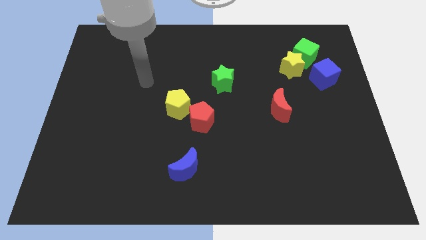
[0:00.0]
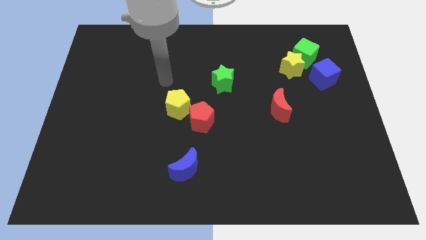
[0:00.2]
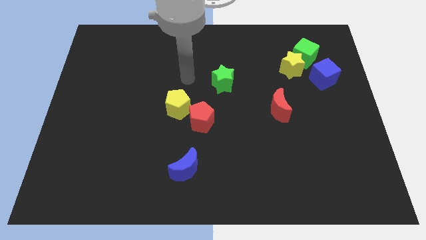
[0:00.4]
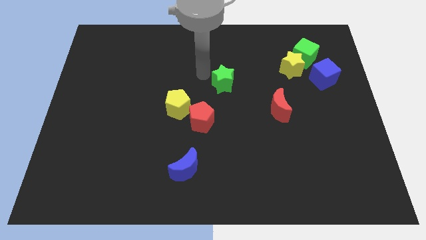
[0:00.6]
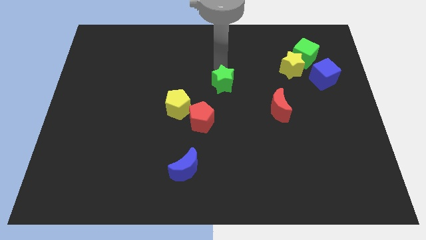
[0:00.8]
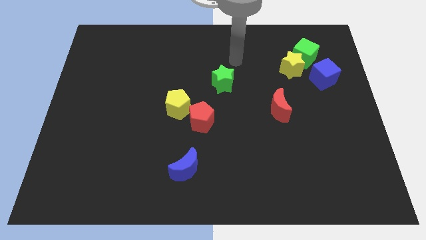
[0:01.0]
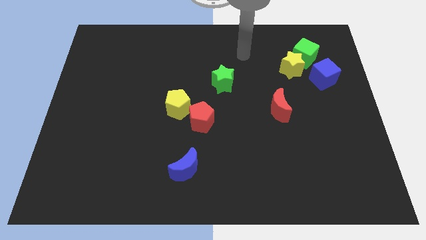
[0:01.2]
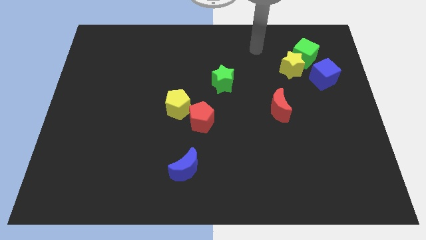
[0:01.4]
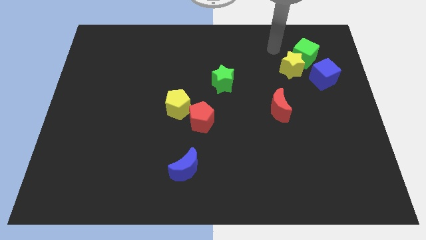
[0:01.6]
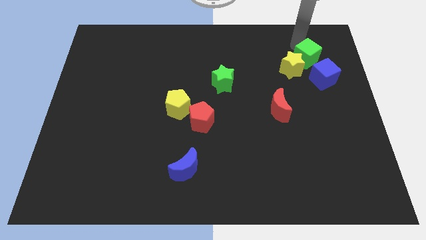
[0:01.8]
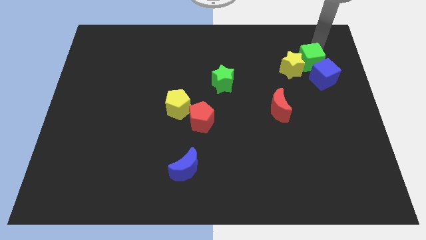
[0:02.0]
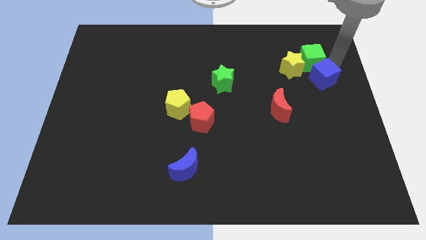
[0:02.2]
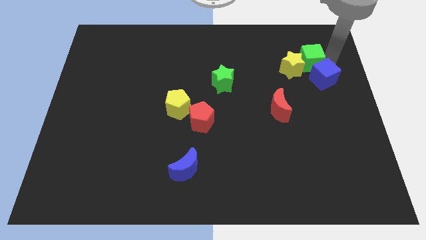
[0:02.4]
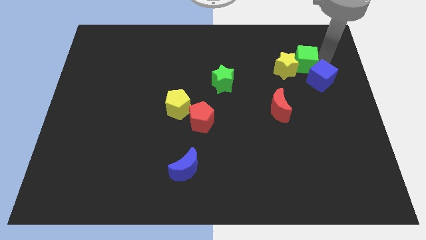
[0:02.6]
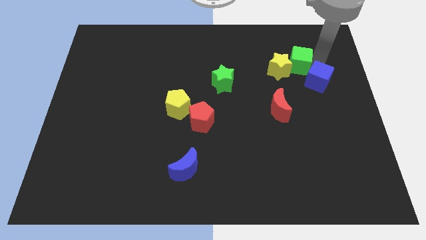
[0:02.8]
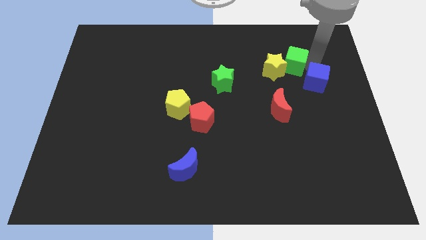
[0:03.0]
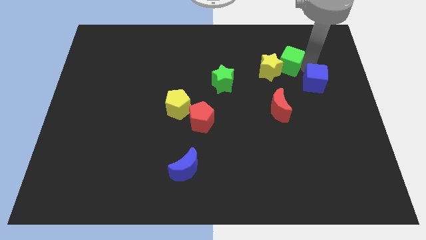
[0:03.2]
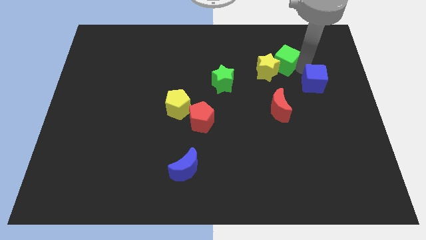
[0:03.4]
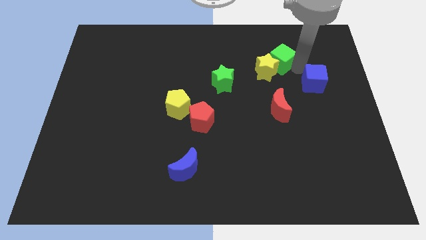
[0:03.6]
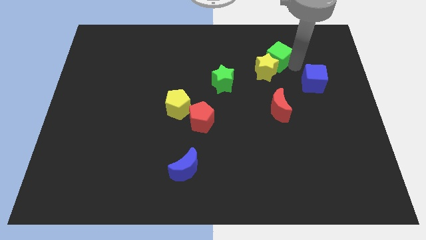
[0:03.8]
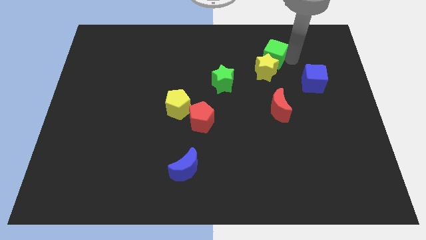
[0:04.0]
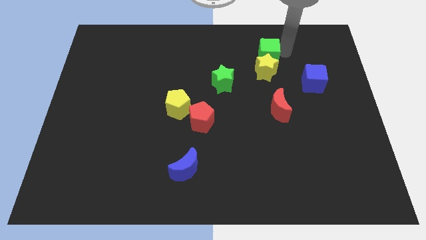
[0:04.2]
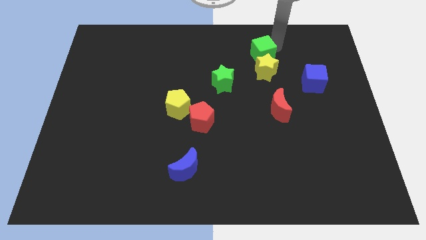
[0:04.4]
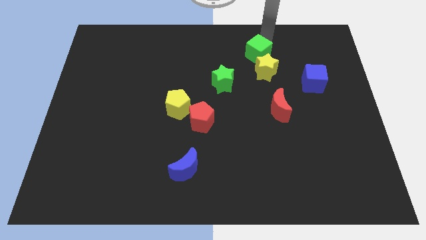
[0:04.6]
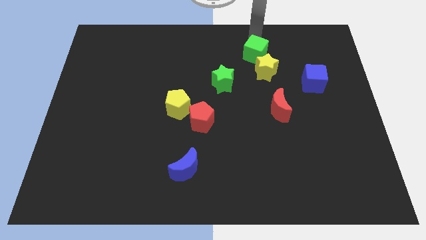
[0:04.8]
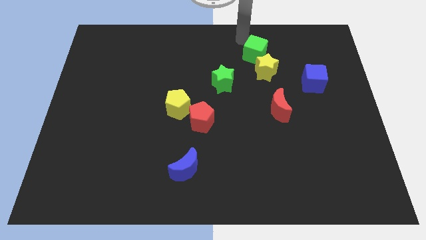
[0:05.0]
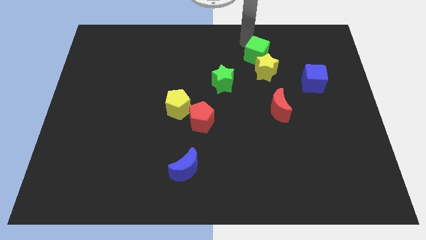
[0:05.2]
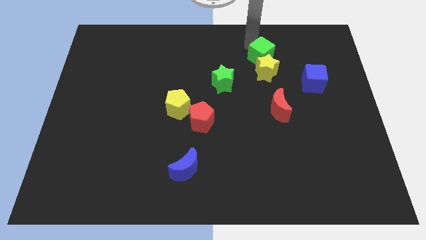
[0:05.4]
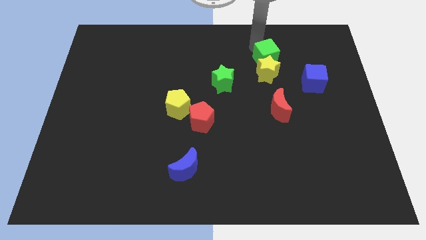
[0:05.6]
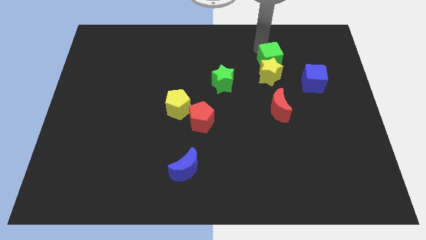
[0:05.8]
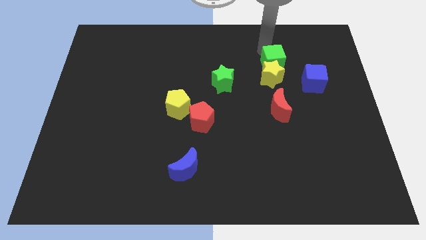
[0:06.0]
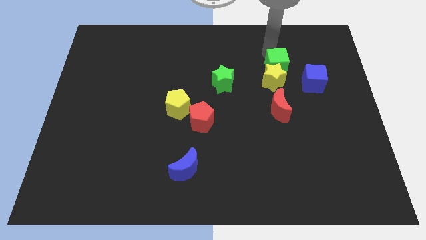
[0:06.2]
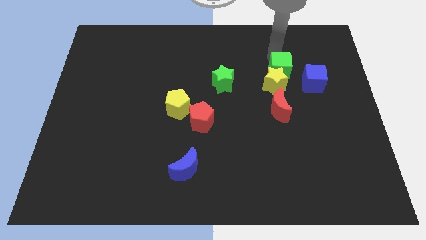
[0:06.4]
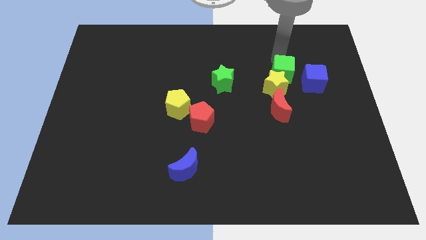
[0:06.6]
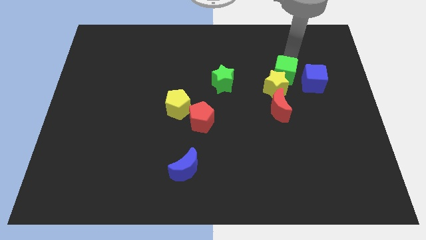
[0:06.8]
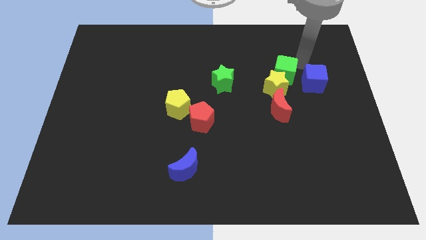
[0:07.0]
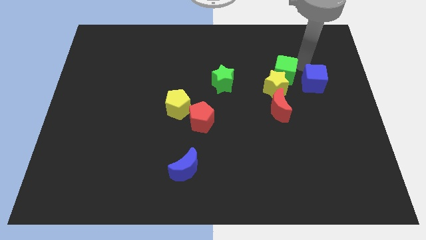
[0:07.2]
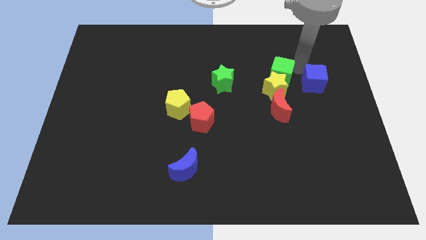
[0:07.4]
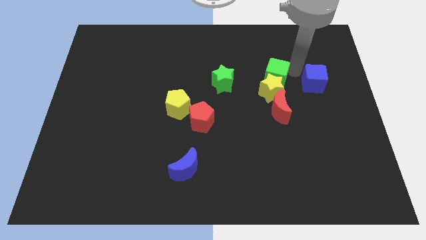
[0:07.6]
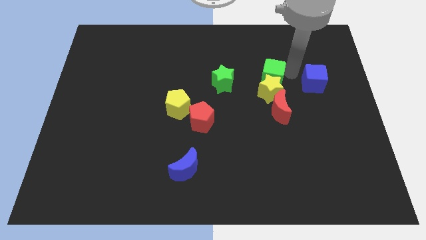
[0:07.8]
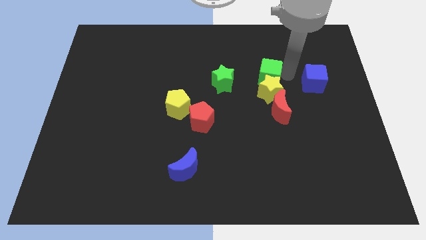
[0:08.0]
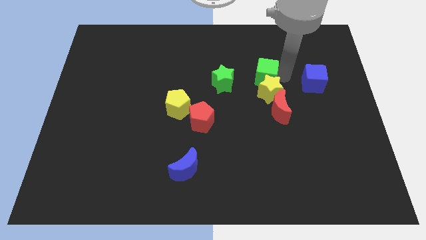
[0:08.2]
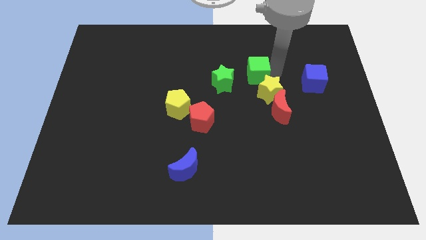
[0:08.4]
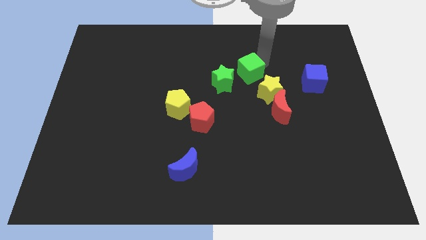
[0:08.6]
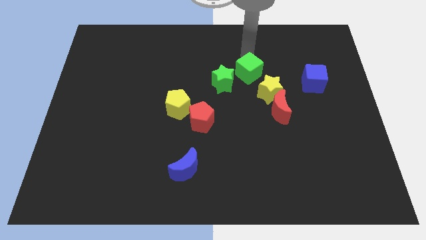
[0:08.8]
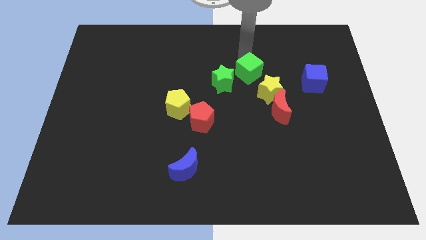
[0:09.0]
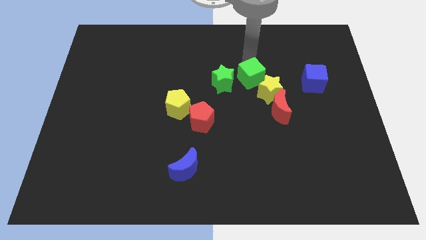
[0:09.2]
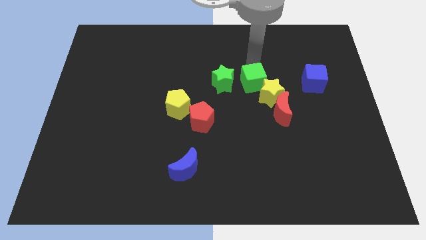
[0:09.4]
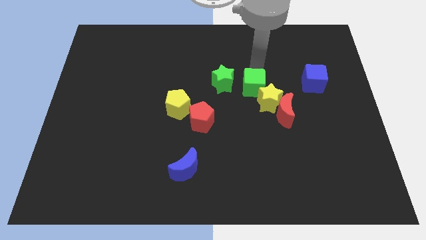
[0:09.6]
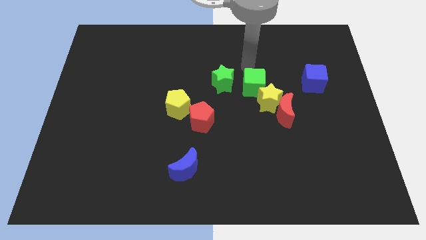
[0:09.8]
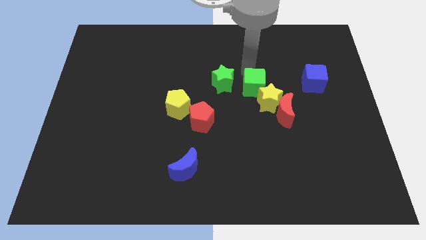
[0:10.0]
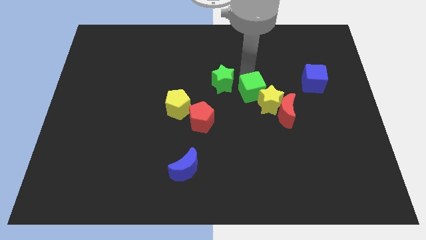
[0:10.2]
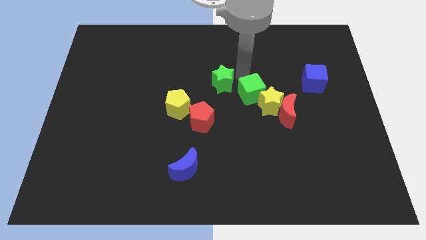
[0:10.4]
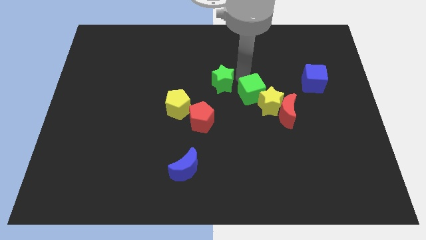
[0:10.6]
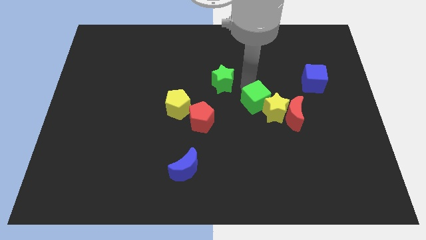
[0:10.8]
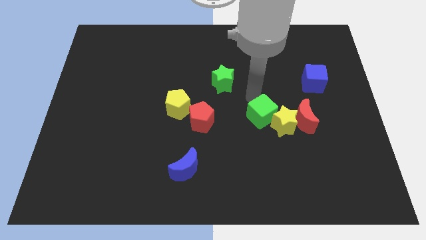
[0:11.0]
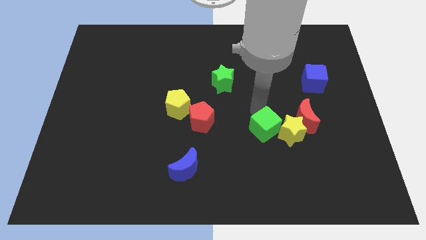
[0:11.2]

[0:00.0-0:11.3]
put the green cube to the bottom left of the red moon

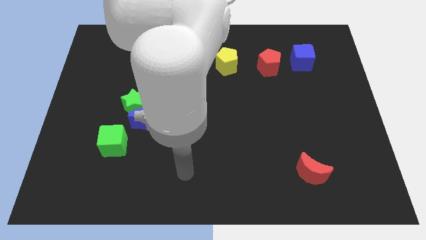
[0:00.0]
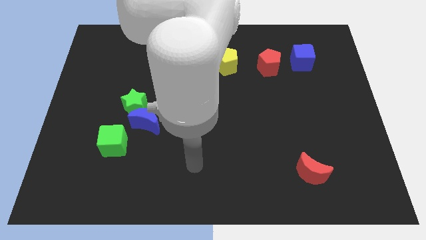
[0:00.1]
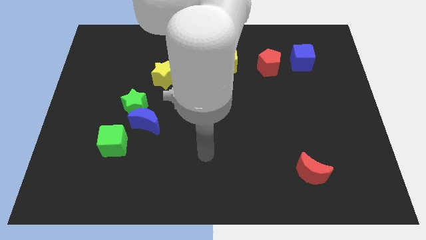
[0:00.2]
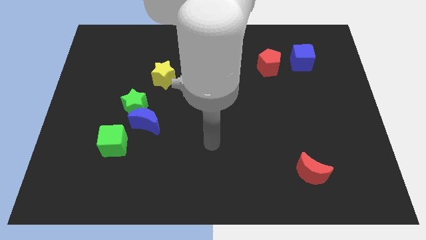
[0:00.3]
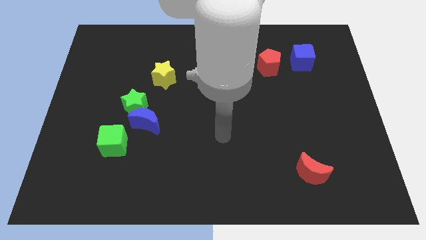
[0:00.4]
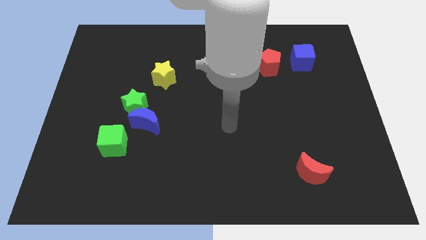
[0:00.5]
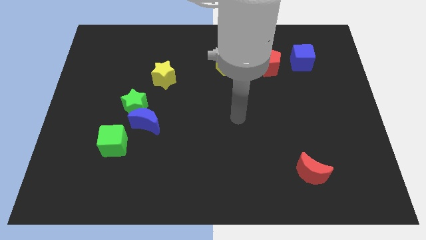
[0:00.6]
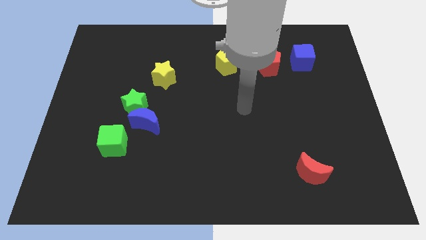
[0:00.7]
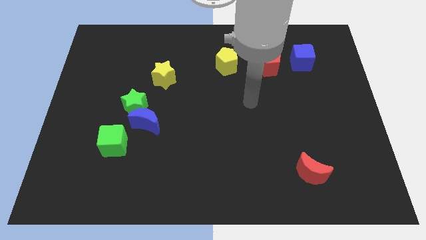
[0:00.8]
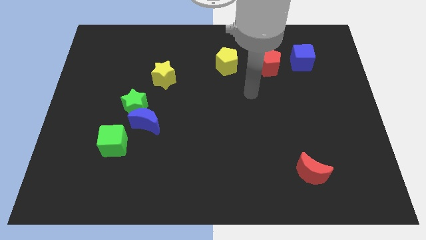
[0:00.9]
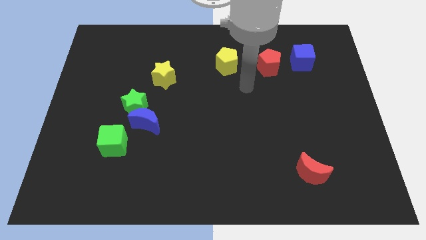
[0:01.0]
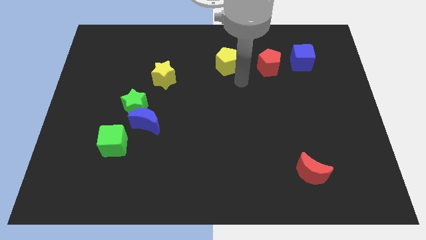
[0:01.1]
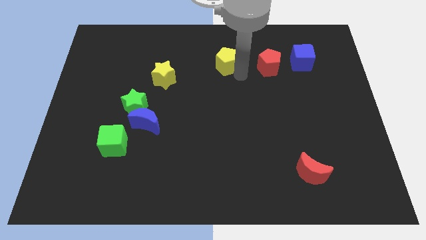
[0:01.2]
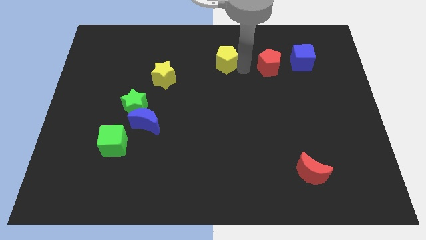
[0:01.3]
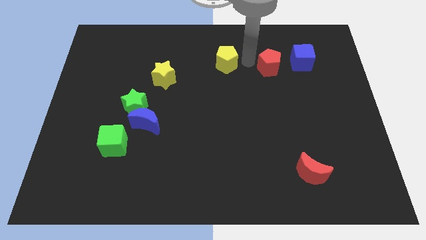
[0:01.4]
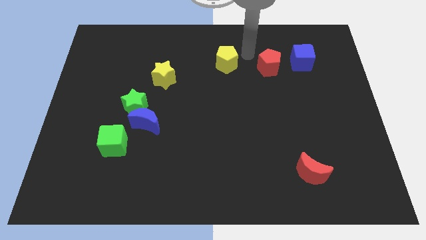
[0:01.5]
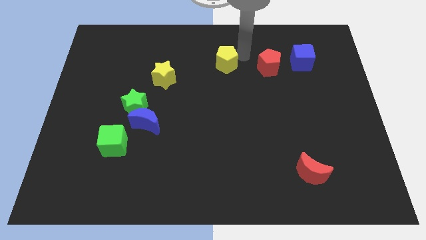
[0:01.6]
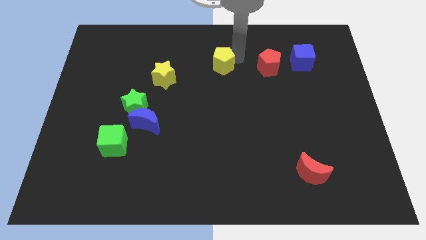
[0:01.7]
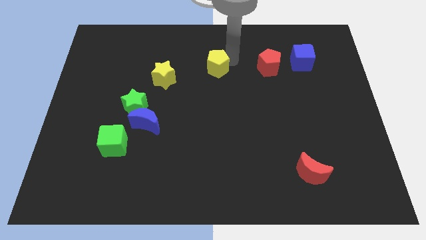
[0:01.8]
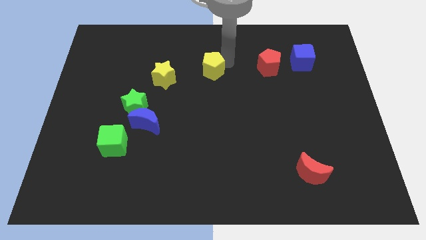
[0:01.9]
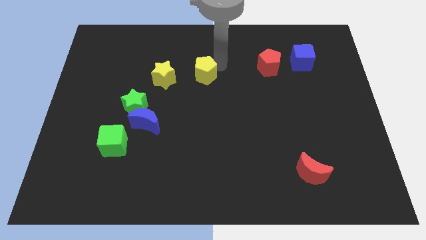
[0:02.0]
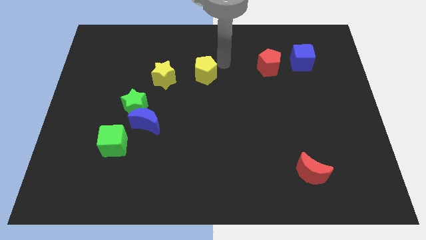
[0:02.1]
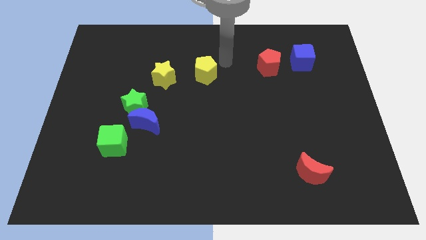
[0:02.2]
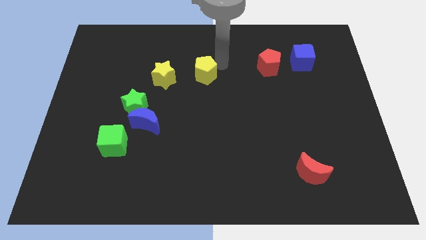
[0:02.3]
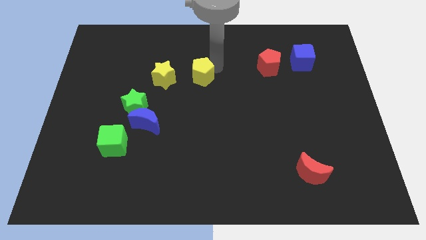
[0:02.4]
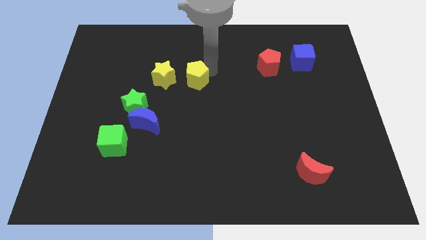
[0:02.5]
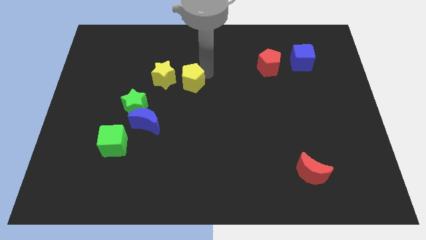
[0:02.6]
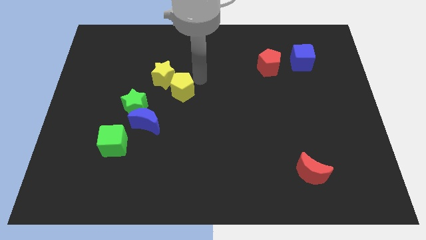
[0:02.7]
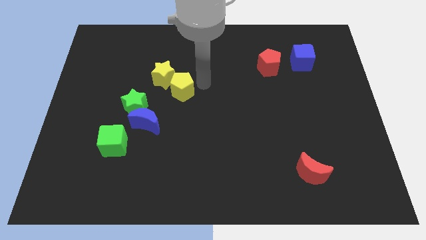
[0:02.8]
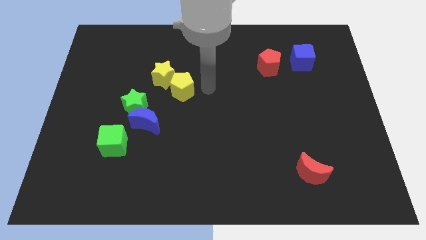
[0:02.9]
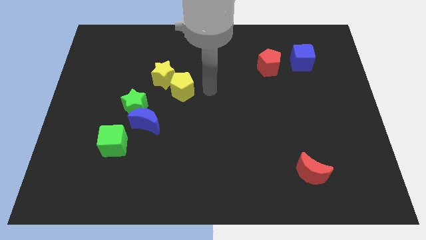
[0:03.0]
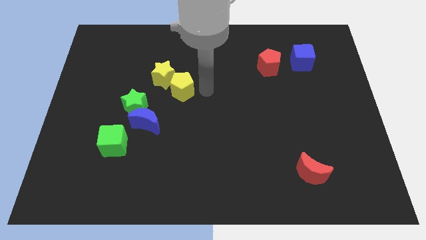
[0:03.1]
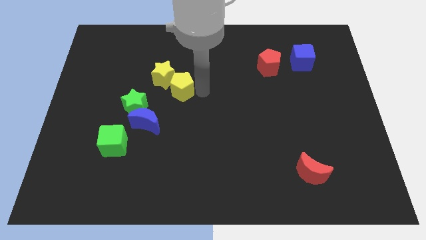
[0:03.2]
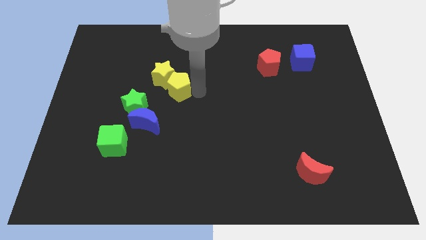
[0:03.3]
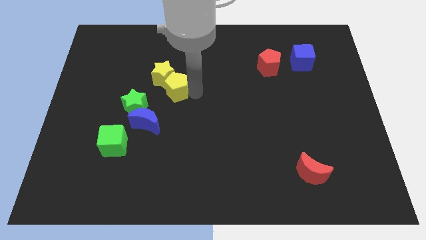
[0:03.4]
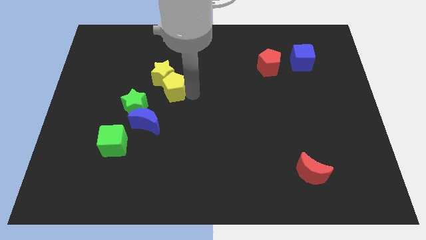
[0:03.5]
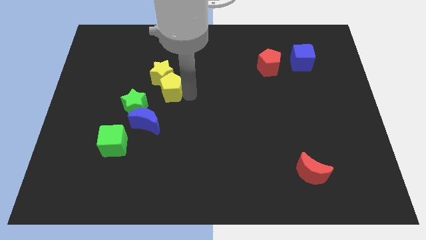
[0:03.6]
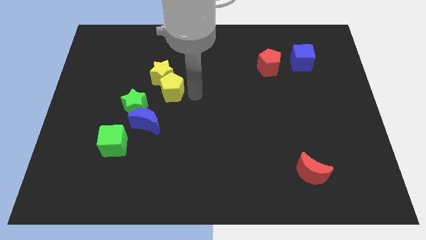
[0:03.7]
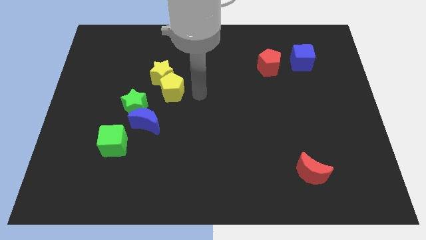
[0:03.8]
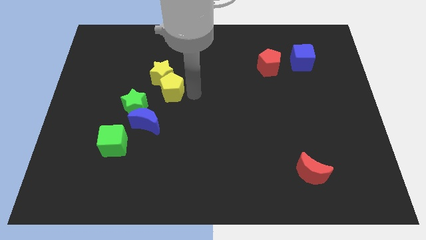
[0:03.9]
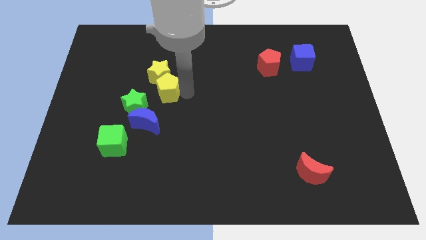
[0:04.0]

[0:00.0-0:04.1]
slide the yellow pentagon above the blue moon
